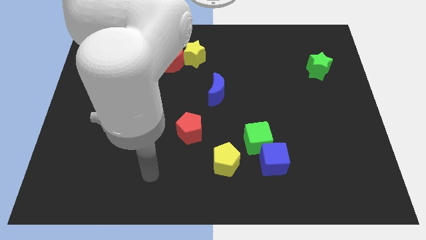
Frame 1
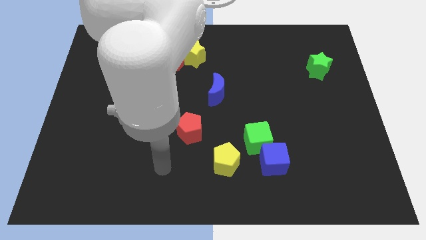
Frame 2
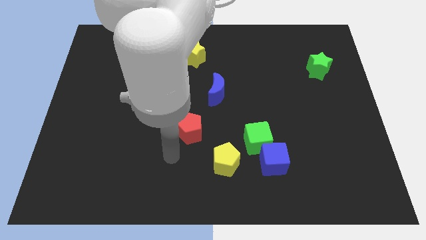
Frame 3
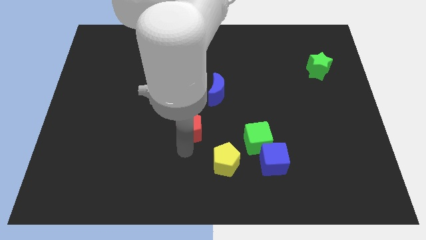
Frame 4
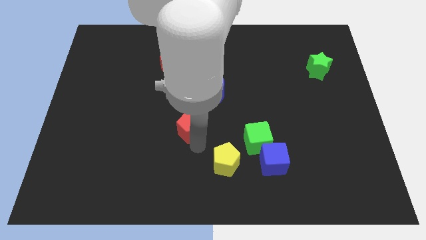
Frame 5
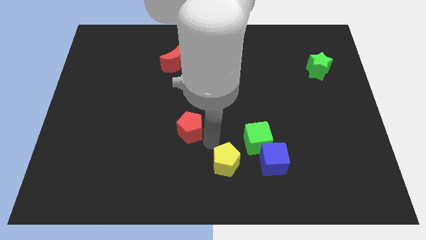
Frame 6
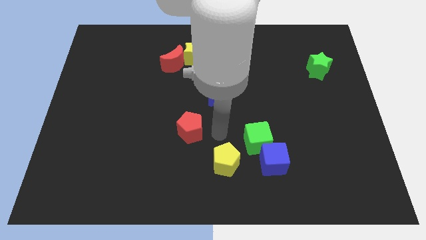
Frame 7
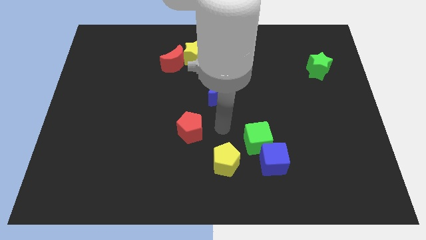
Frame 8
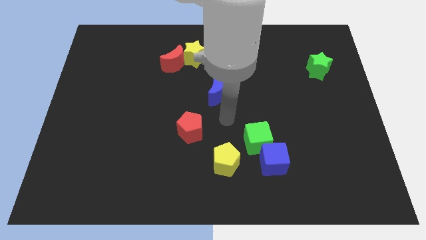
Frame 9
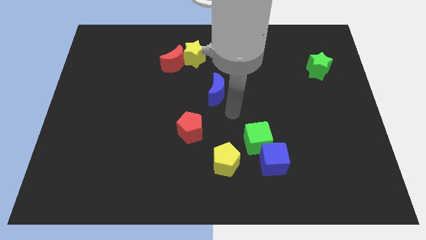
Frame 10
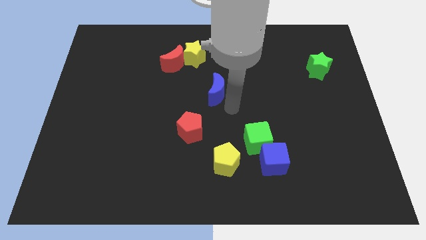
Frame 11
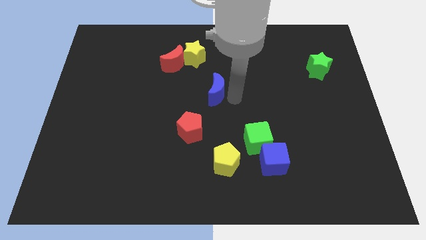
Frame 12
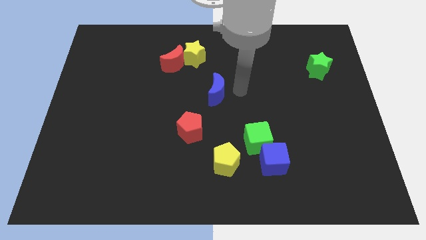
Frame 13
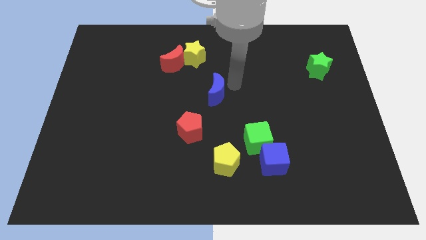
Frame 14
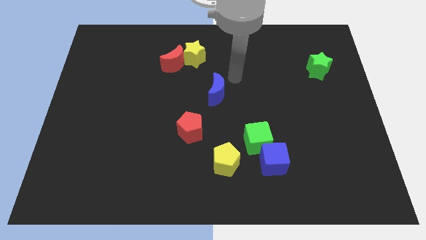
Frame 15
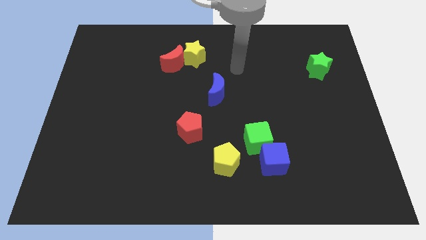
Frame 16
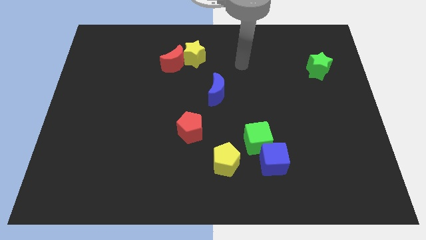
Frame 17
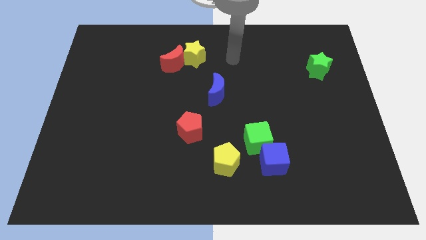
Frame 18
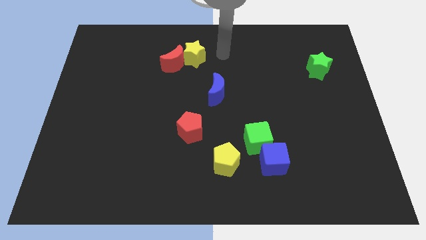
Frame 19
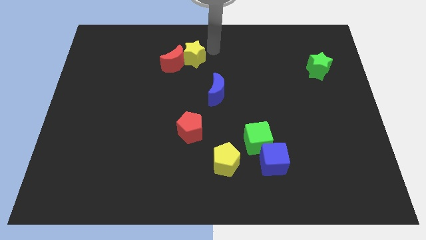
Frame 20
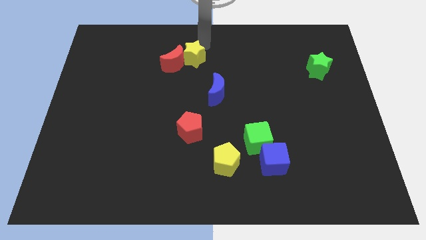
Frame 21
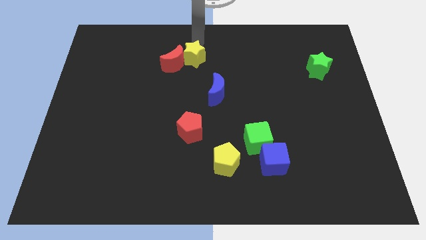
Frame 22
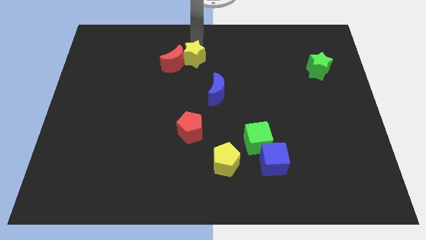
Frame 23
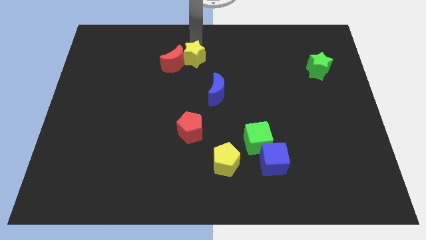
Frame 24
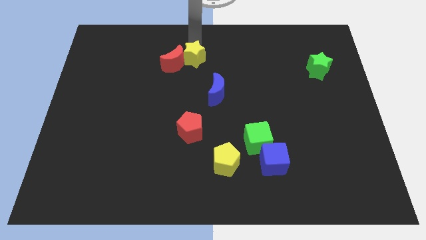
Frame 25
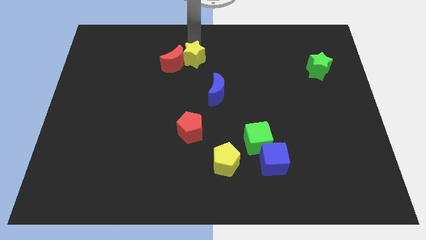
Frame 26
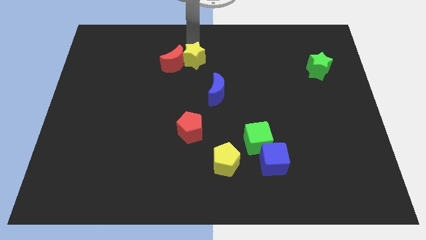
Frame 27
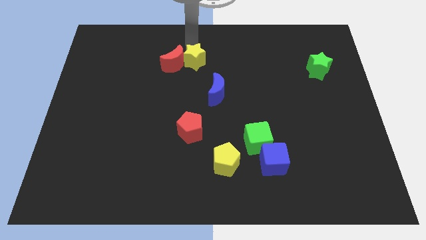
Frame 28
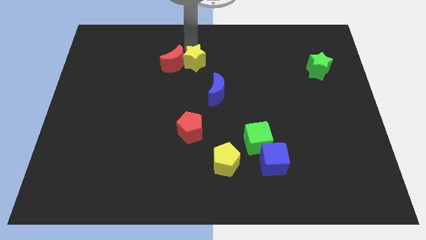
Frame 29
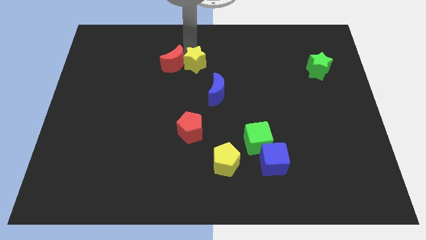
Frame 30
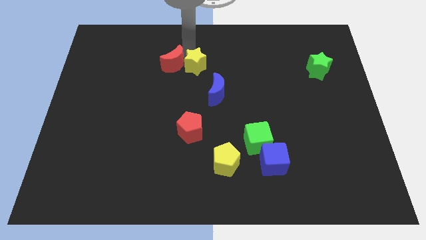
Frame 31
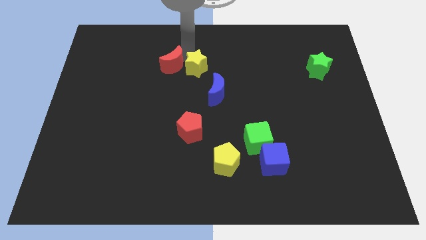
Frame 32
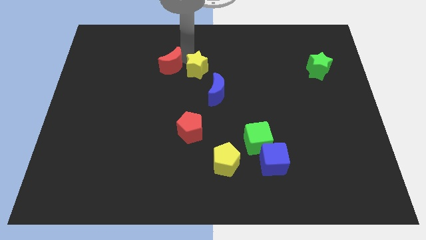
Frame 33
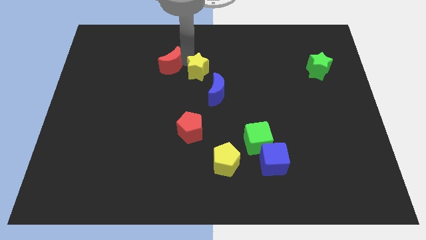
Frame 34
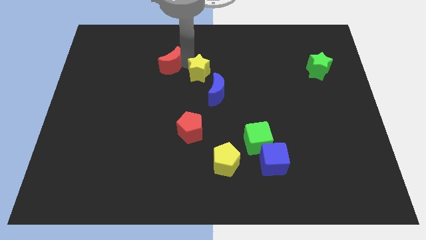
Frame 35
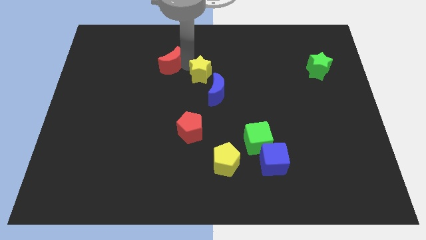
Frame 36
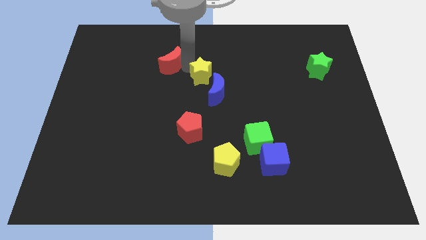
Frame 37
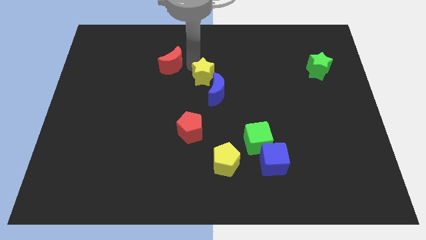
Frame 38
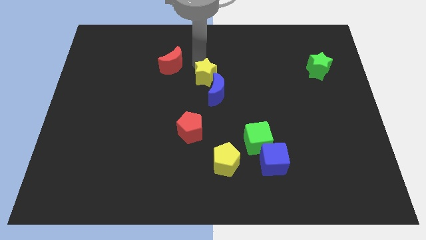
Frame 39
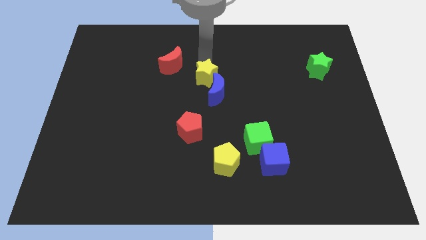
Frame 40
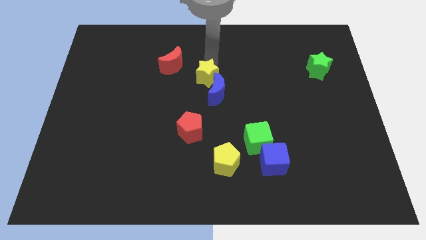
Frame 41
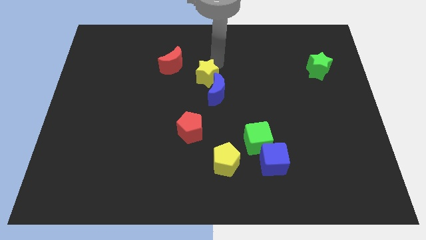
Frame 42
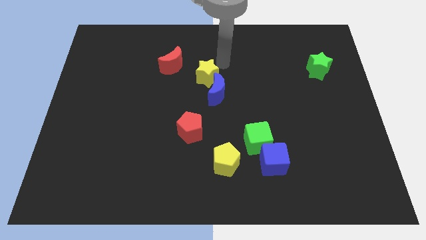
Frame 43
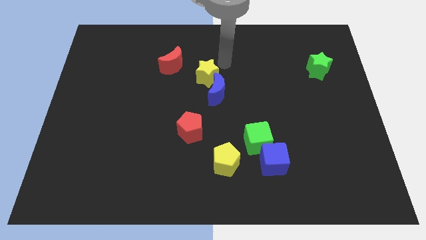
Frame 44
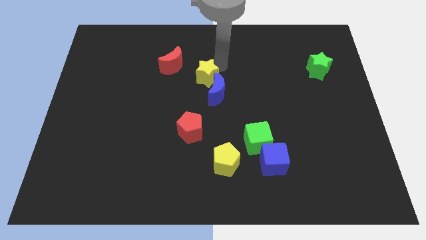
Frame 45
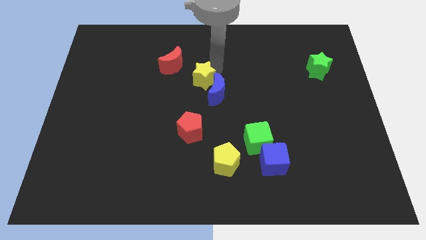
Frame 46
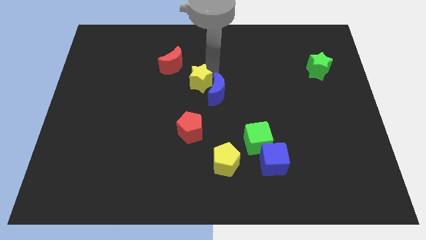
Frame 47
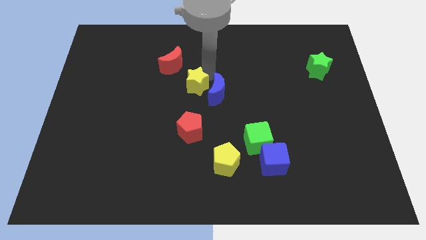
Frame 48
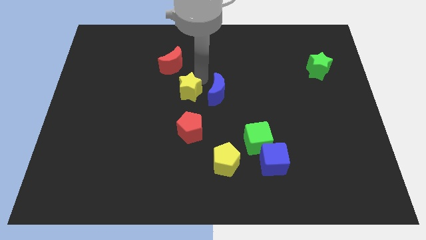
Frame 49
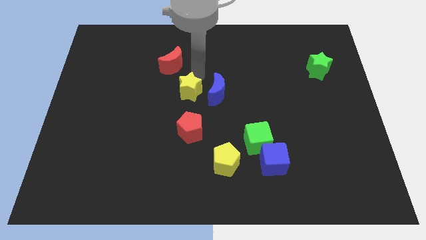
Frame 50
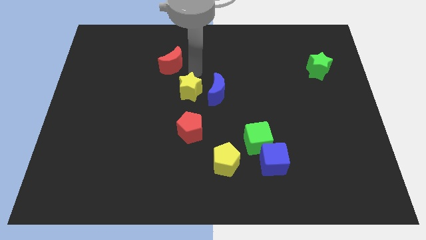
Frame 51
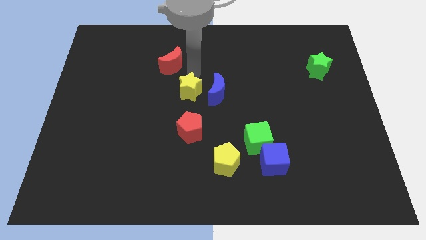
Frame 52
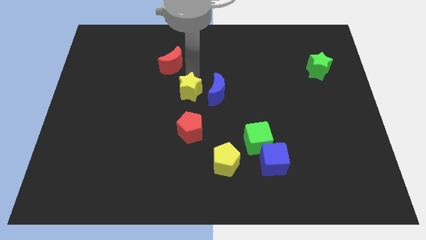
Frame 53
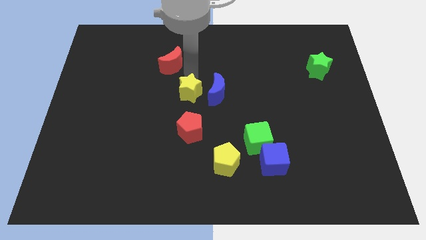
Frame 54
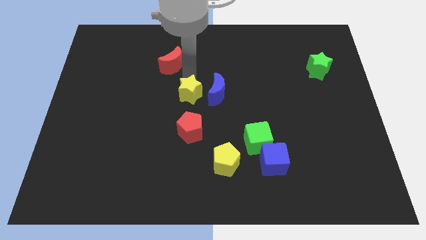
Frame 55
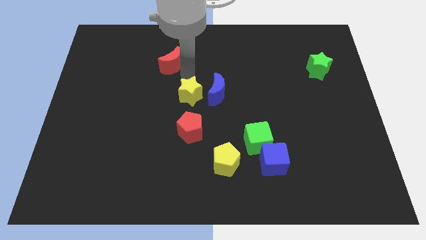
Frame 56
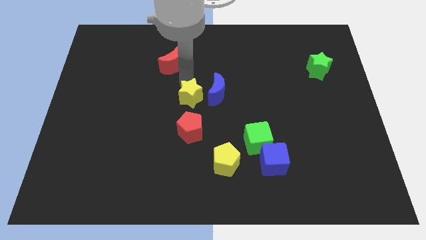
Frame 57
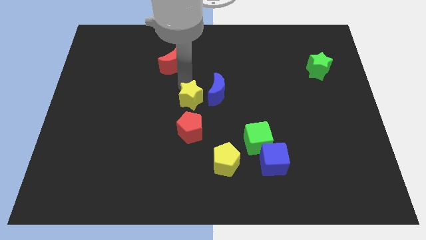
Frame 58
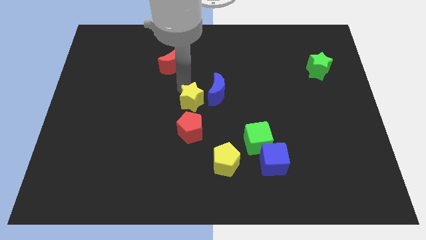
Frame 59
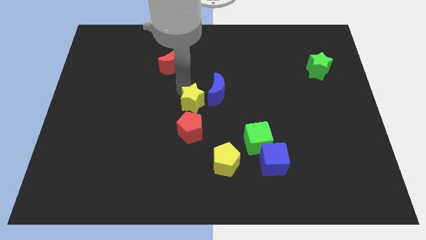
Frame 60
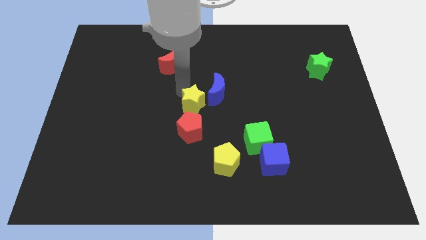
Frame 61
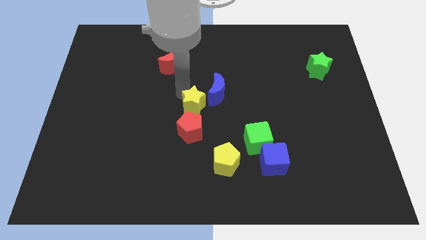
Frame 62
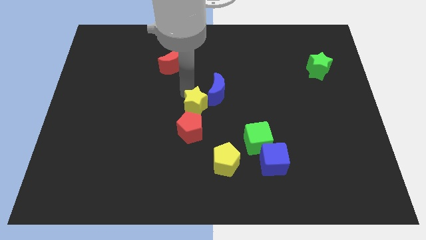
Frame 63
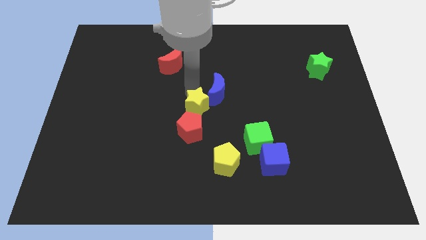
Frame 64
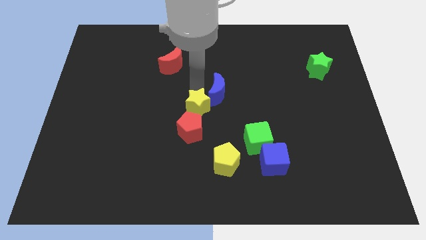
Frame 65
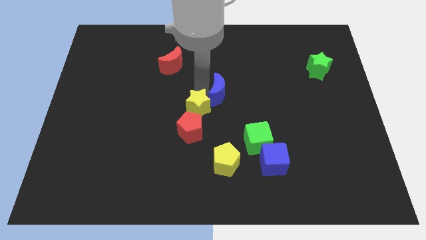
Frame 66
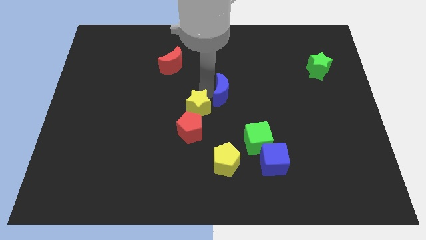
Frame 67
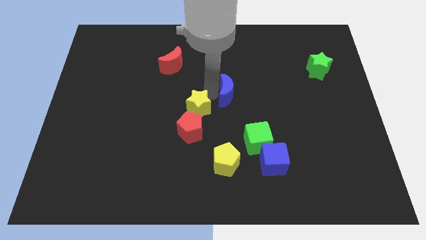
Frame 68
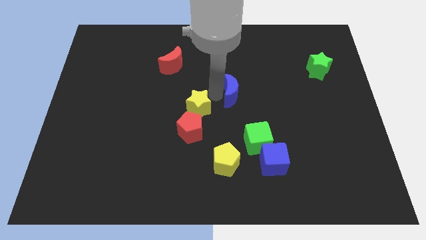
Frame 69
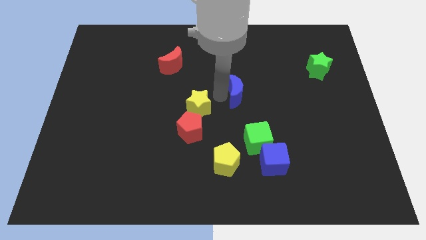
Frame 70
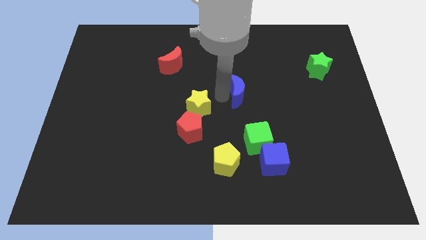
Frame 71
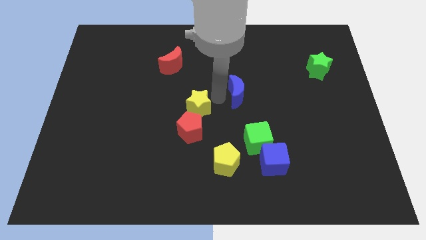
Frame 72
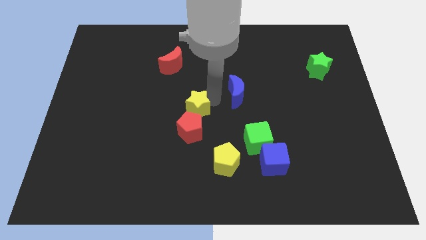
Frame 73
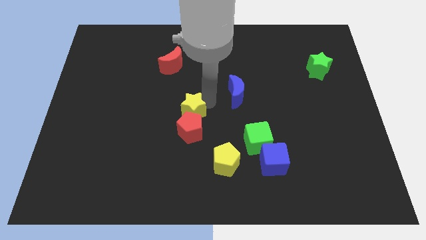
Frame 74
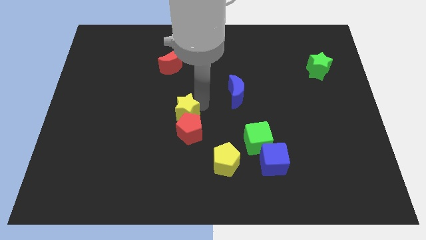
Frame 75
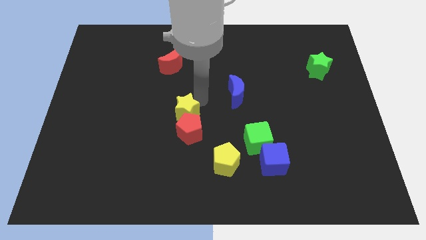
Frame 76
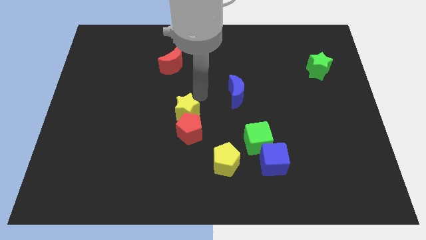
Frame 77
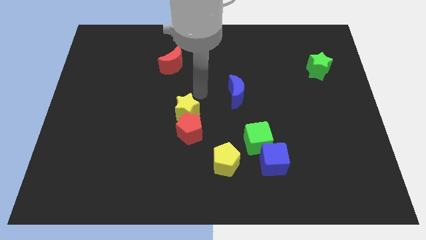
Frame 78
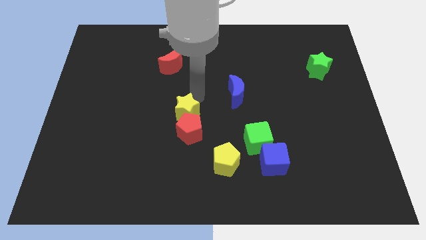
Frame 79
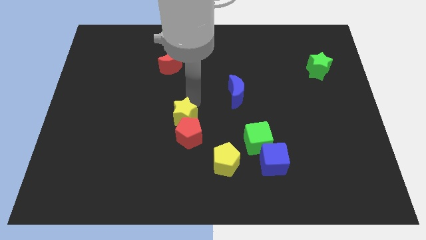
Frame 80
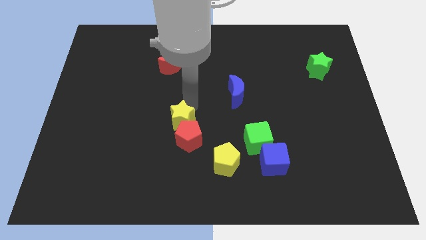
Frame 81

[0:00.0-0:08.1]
push the yellow star down

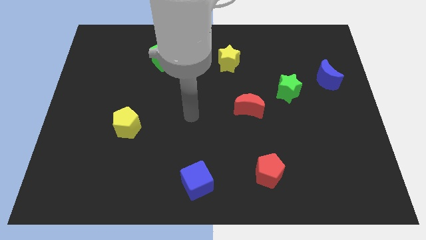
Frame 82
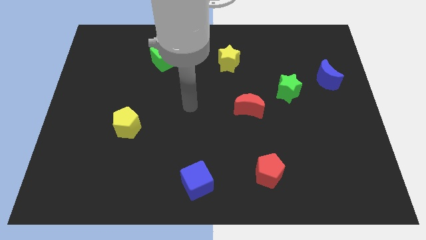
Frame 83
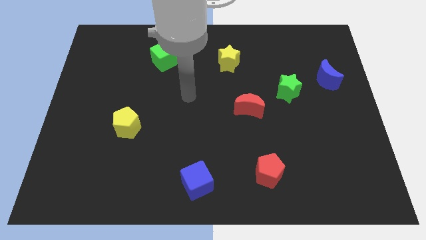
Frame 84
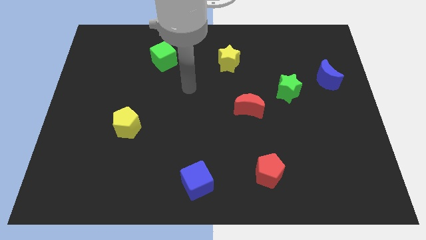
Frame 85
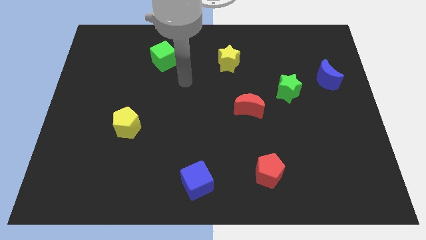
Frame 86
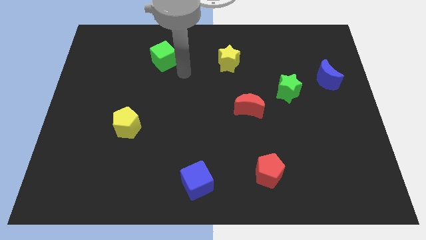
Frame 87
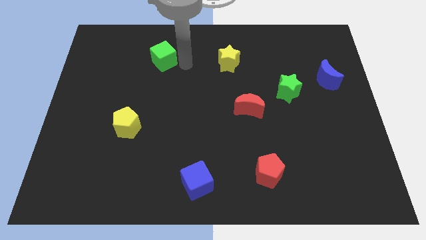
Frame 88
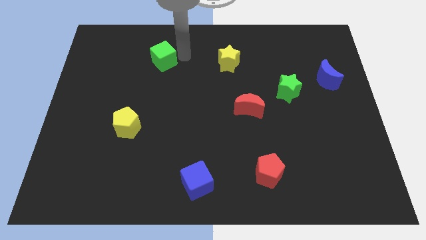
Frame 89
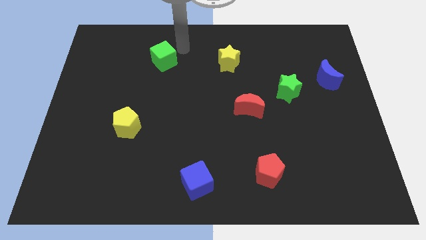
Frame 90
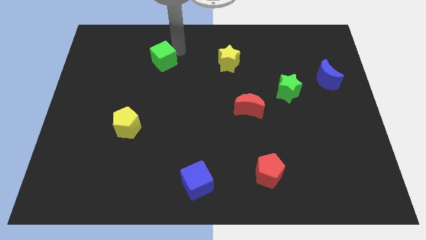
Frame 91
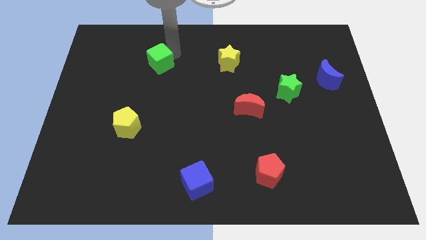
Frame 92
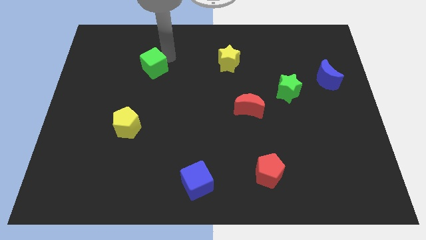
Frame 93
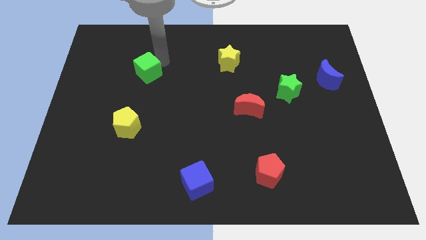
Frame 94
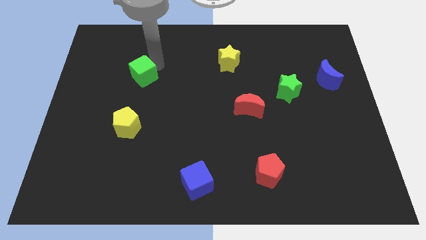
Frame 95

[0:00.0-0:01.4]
move the green cube down and left diagonally a little
